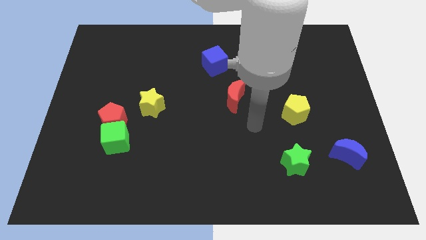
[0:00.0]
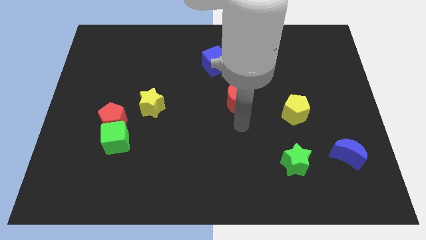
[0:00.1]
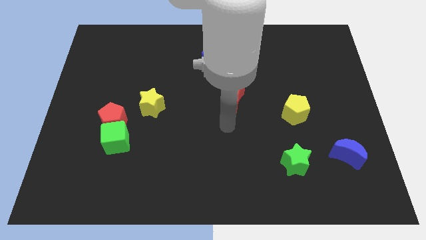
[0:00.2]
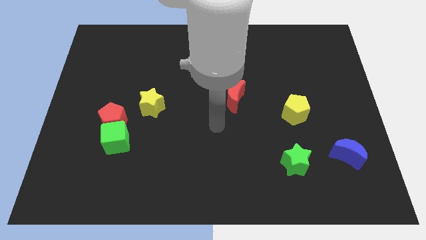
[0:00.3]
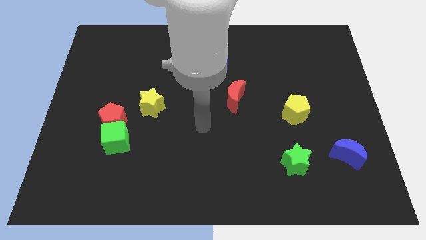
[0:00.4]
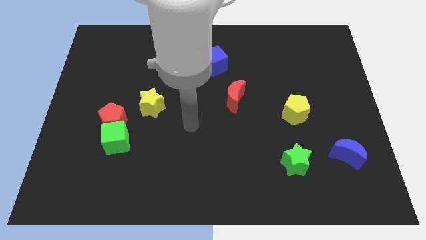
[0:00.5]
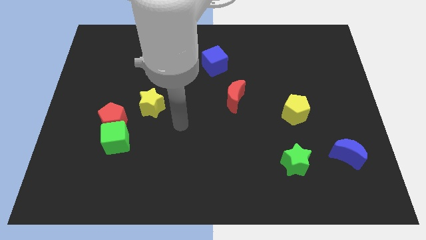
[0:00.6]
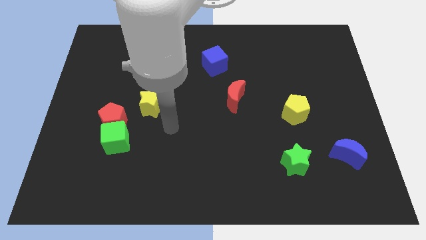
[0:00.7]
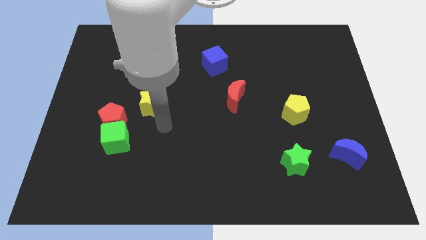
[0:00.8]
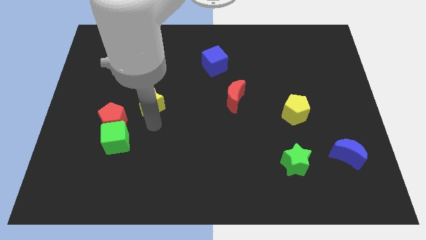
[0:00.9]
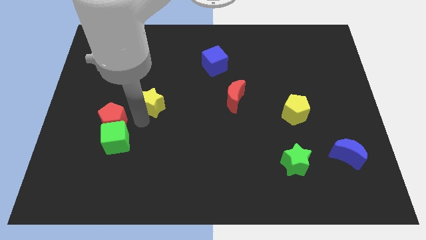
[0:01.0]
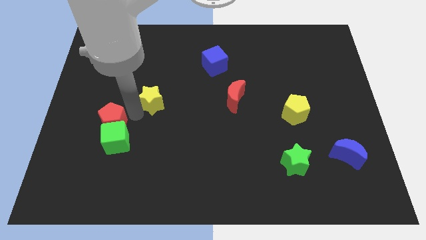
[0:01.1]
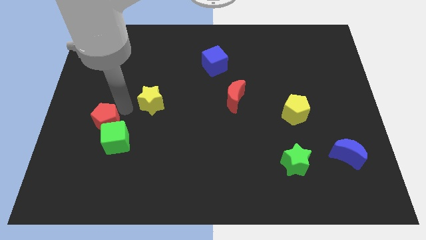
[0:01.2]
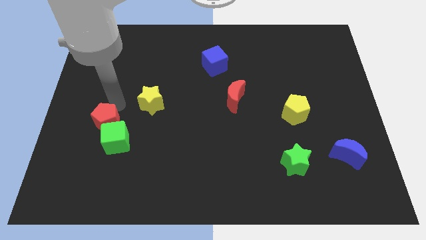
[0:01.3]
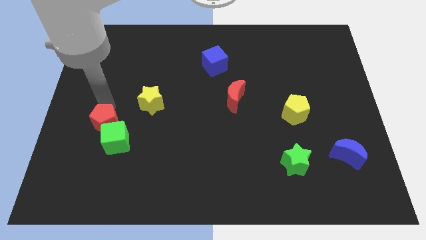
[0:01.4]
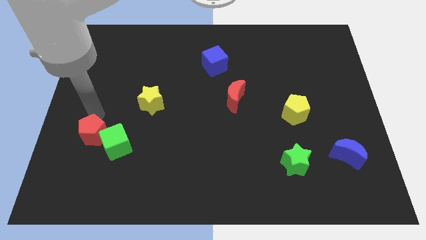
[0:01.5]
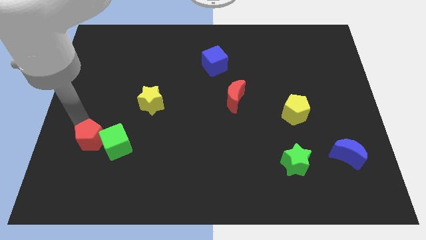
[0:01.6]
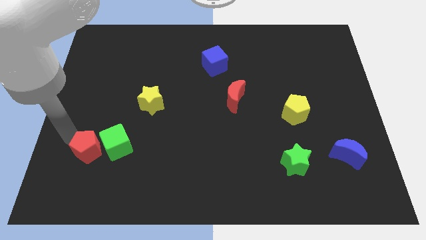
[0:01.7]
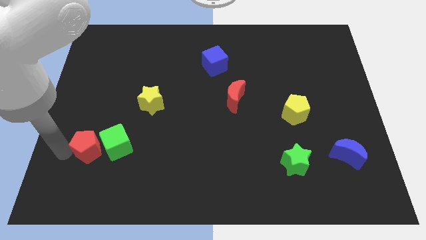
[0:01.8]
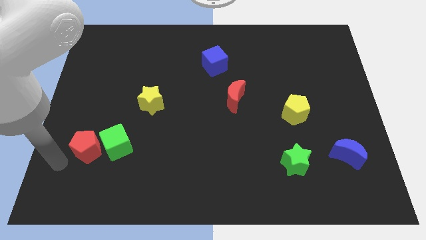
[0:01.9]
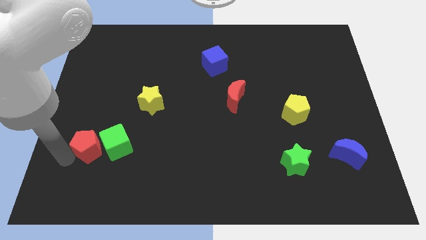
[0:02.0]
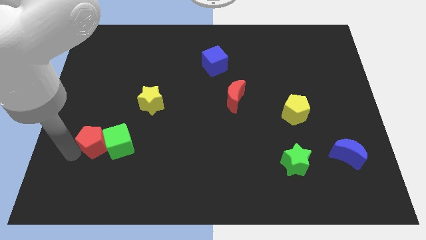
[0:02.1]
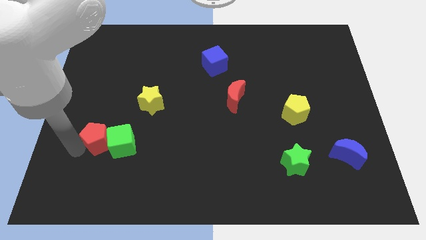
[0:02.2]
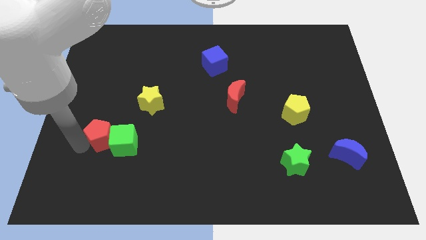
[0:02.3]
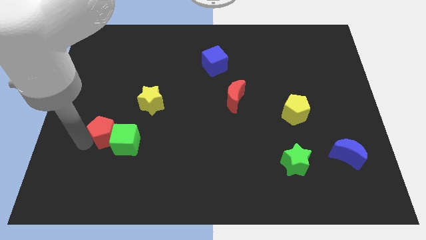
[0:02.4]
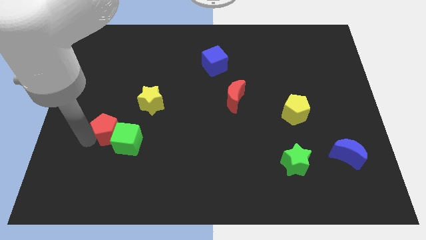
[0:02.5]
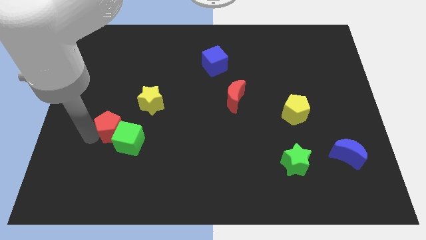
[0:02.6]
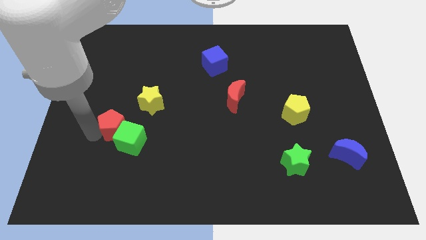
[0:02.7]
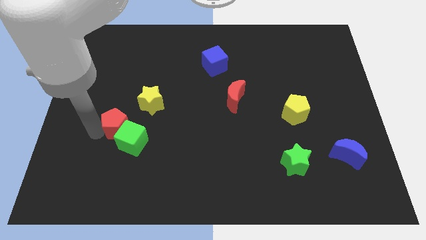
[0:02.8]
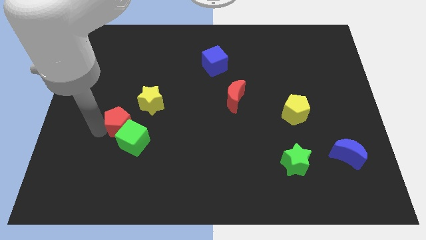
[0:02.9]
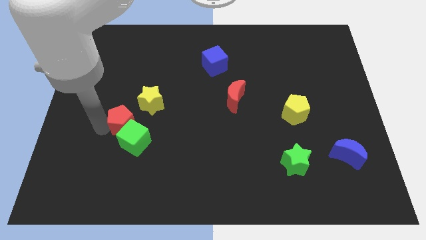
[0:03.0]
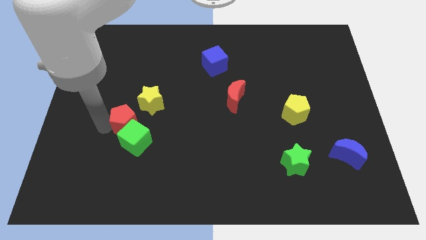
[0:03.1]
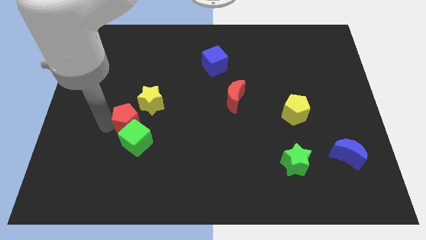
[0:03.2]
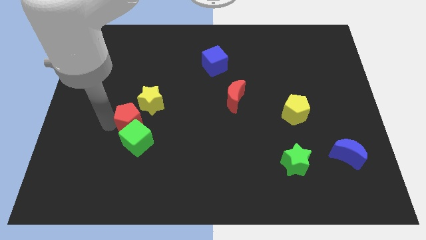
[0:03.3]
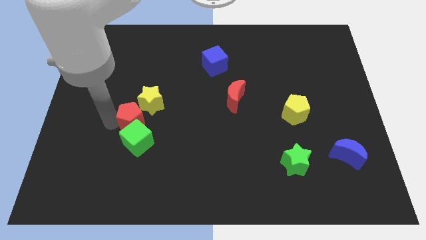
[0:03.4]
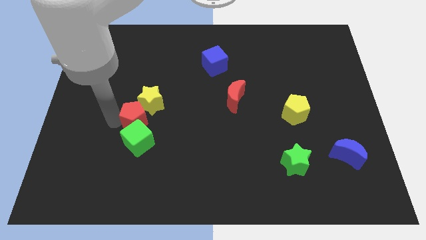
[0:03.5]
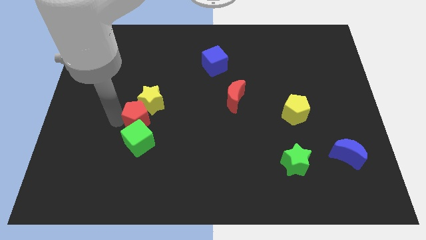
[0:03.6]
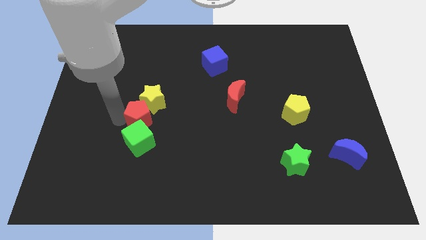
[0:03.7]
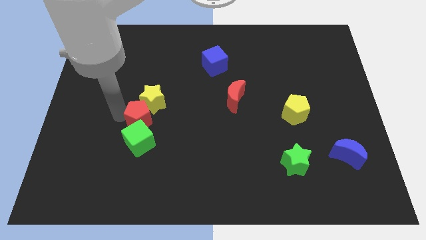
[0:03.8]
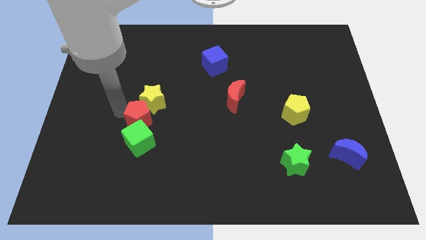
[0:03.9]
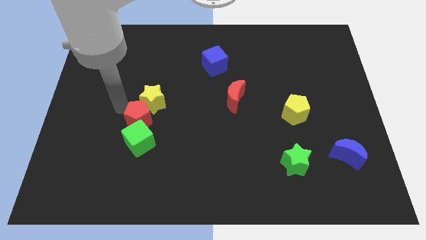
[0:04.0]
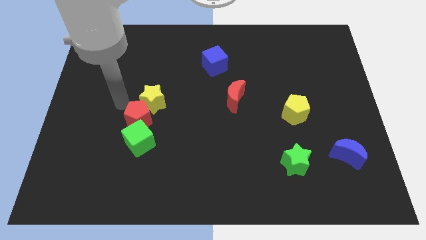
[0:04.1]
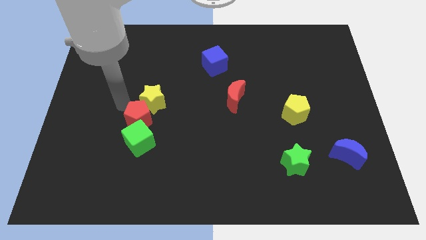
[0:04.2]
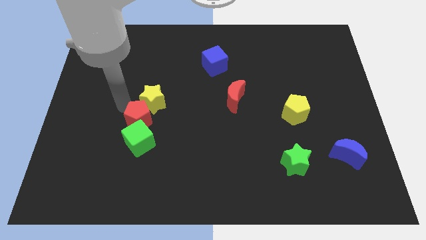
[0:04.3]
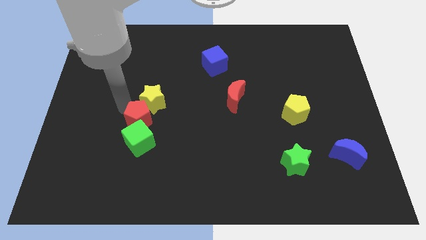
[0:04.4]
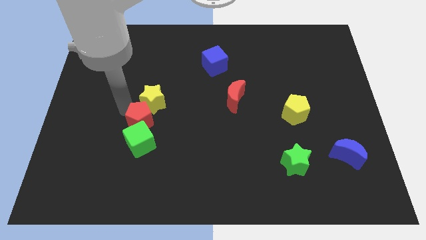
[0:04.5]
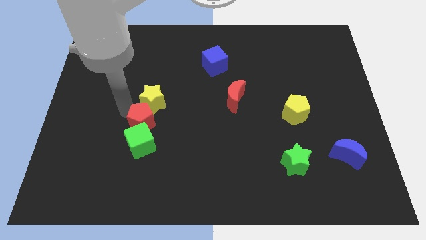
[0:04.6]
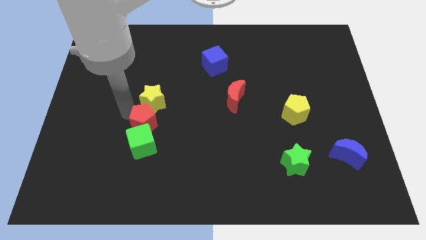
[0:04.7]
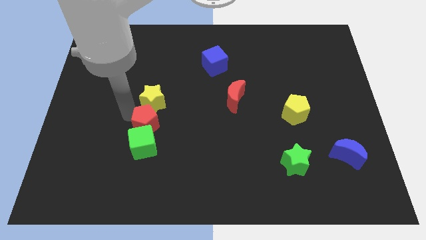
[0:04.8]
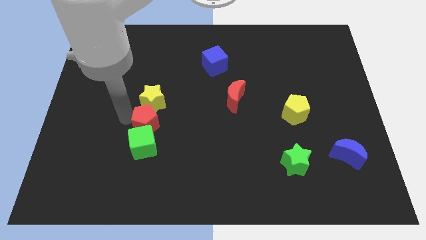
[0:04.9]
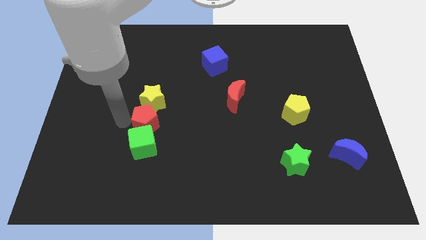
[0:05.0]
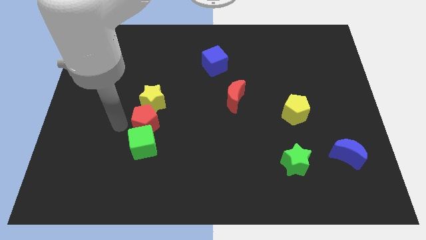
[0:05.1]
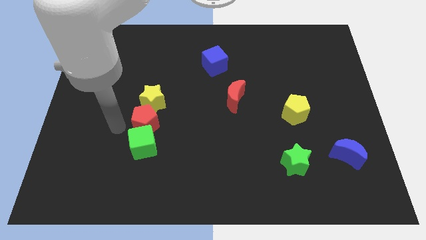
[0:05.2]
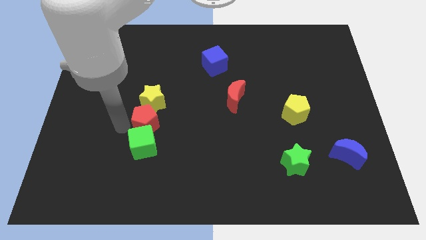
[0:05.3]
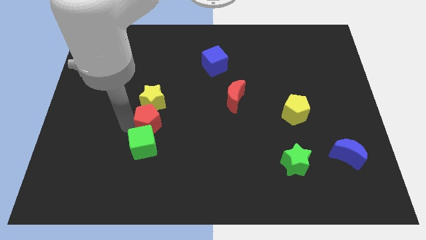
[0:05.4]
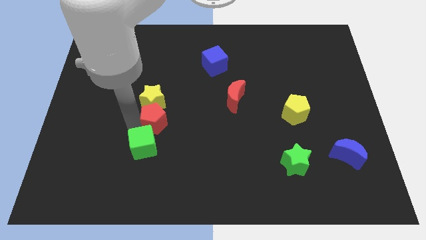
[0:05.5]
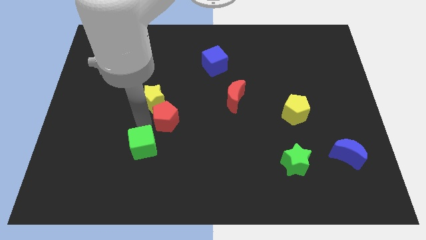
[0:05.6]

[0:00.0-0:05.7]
move the red pentagon to the middle

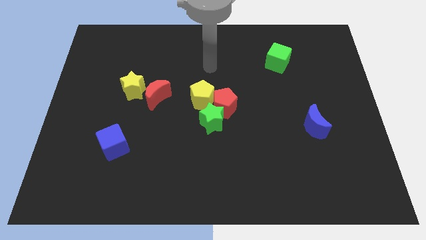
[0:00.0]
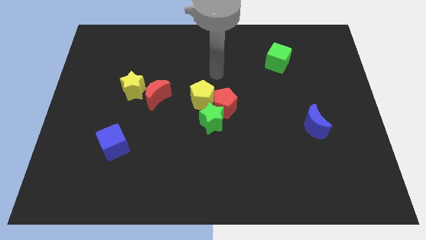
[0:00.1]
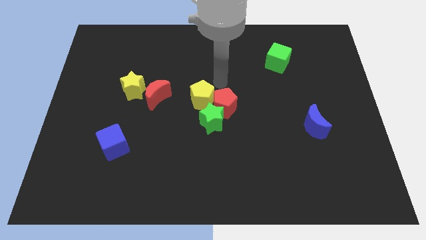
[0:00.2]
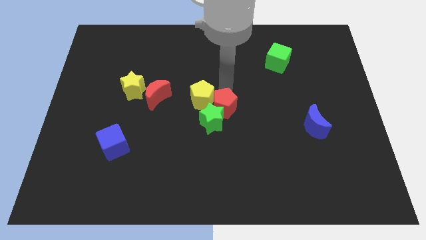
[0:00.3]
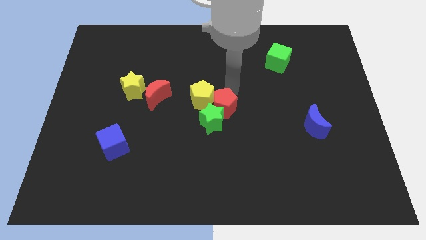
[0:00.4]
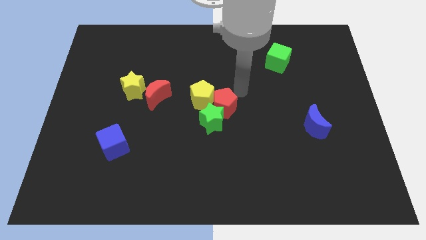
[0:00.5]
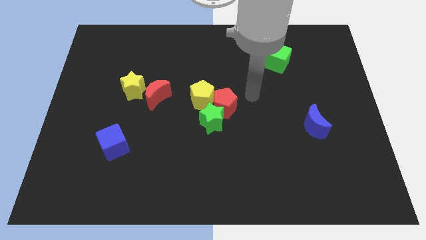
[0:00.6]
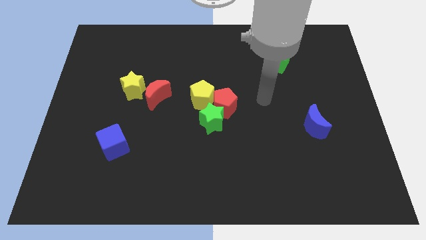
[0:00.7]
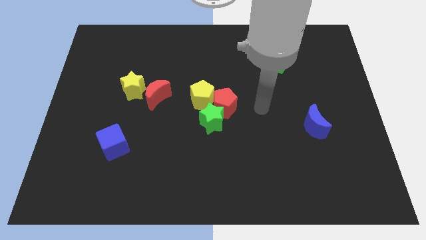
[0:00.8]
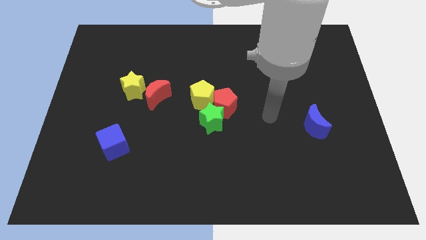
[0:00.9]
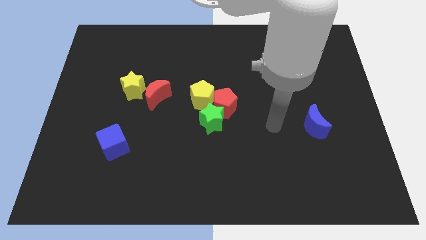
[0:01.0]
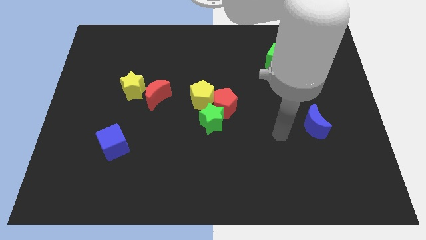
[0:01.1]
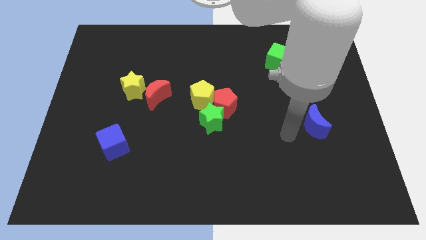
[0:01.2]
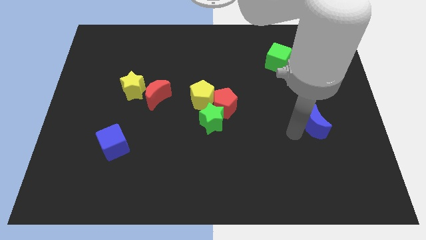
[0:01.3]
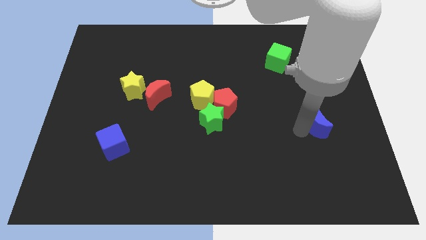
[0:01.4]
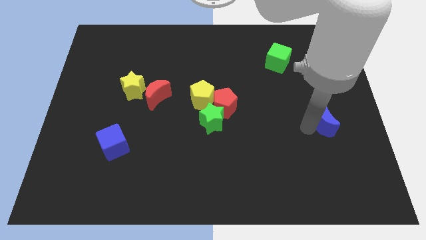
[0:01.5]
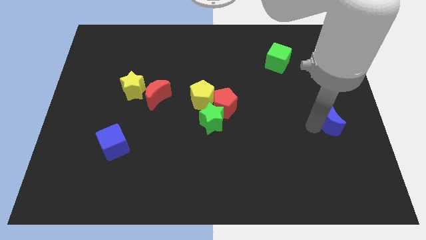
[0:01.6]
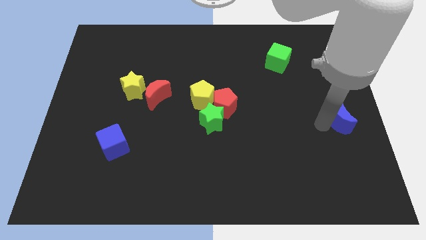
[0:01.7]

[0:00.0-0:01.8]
push the blue moon to the right side
